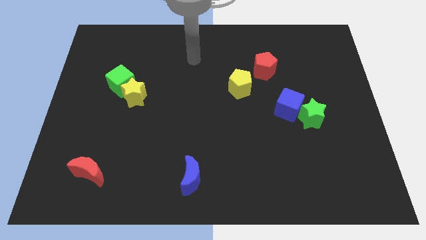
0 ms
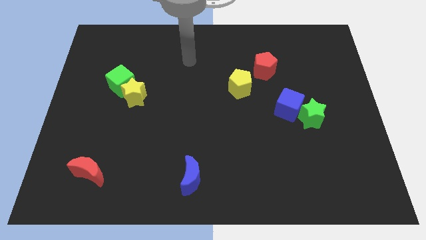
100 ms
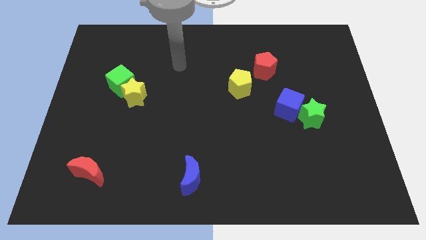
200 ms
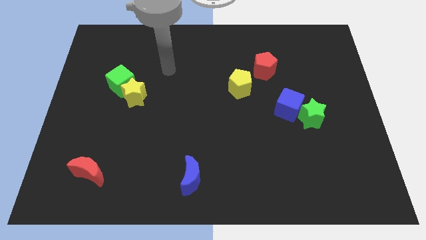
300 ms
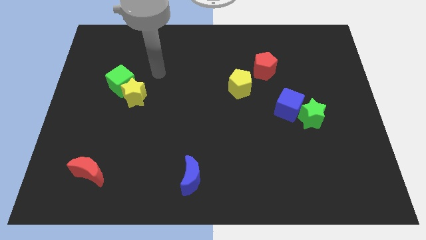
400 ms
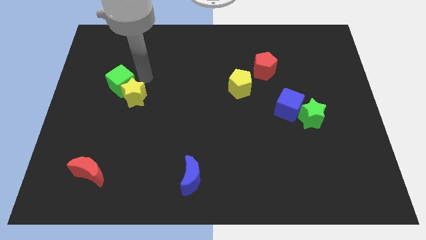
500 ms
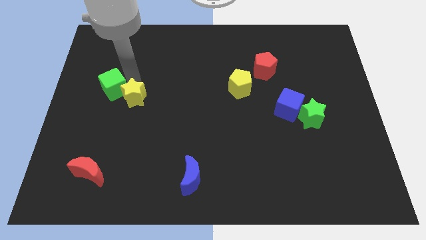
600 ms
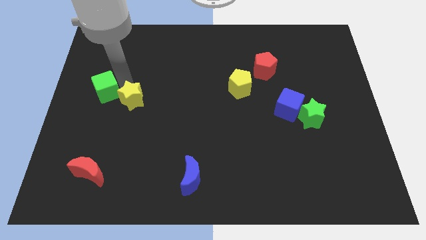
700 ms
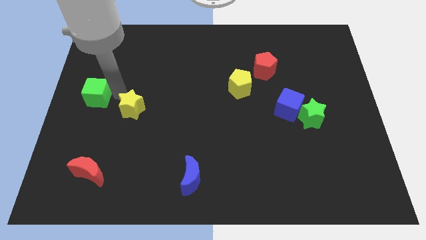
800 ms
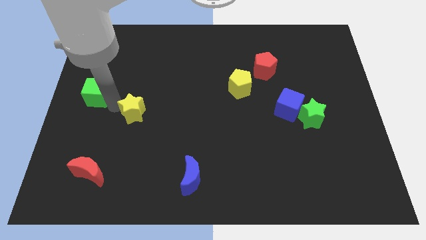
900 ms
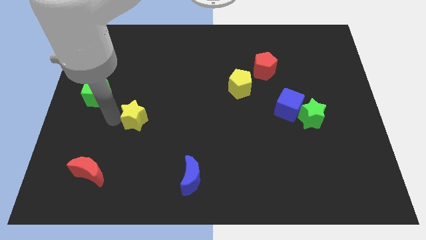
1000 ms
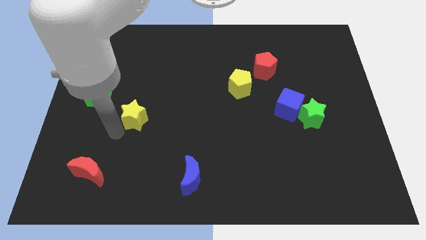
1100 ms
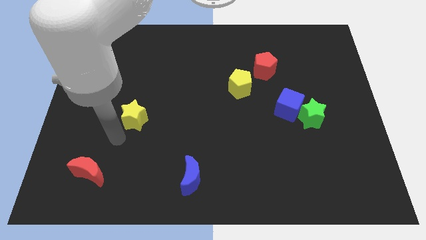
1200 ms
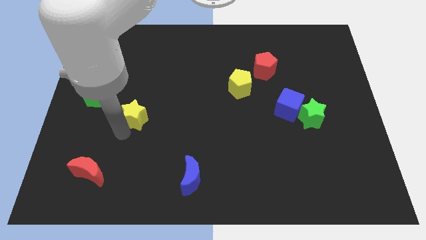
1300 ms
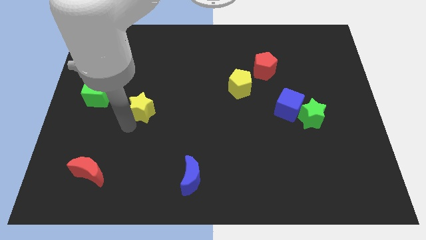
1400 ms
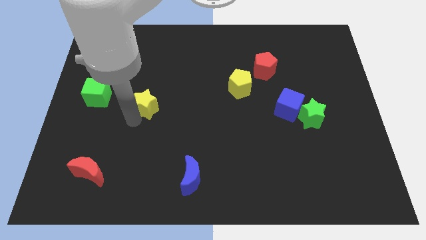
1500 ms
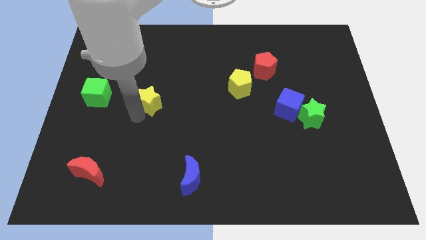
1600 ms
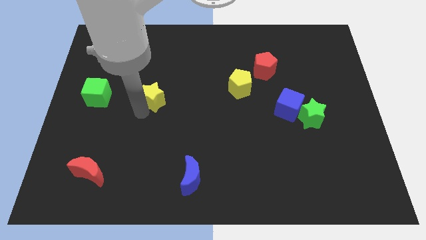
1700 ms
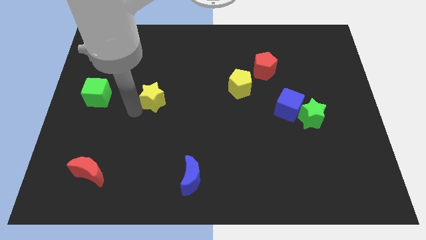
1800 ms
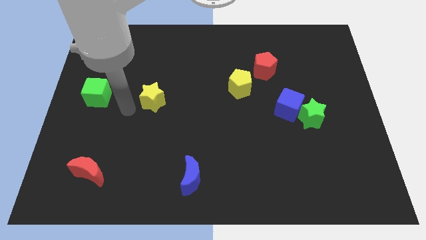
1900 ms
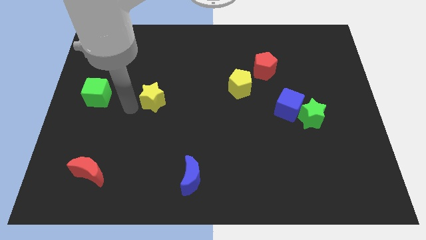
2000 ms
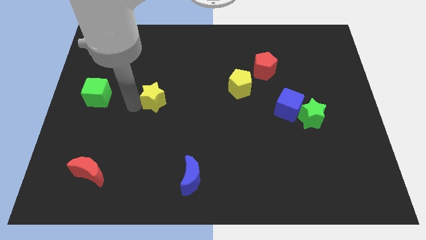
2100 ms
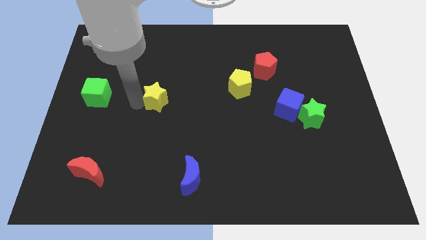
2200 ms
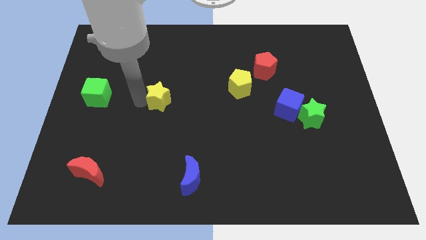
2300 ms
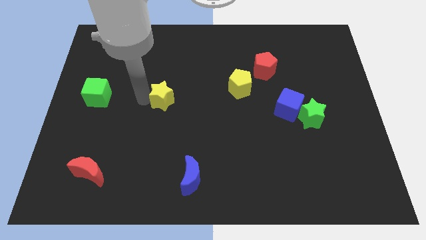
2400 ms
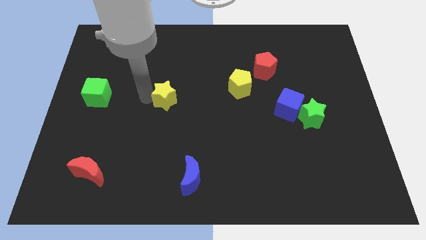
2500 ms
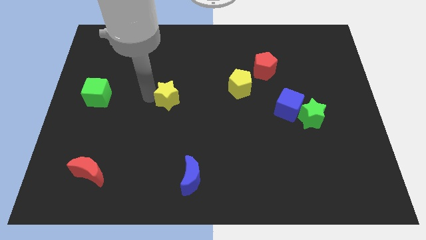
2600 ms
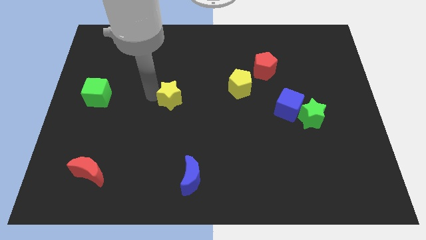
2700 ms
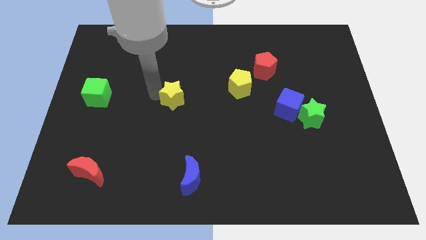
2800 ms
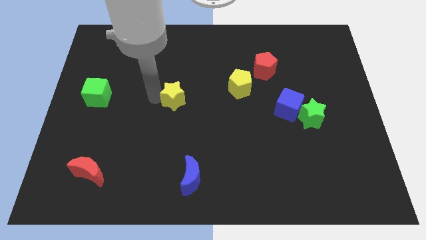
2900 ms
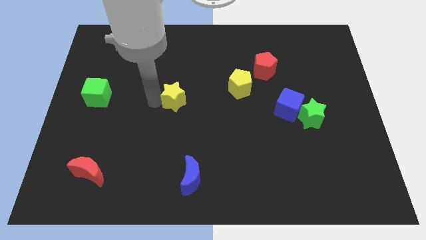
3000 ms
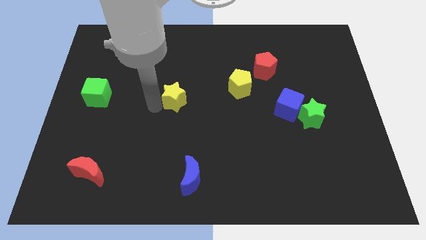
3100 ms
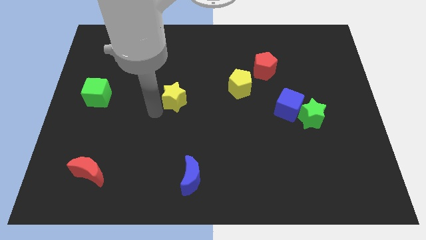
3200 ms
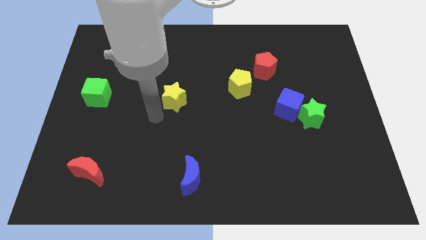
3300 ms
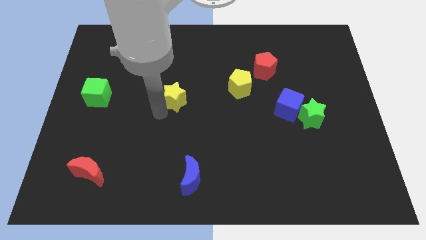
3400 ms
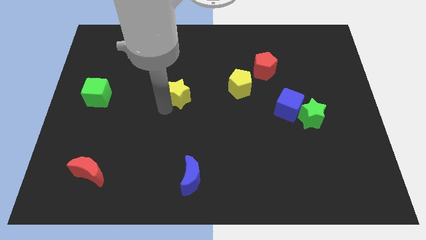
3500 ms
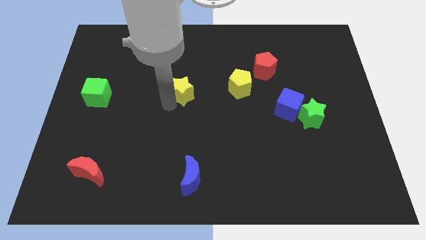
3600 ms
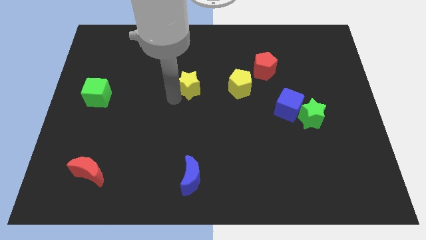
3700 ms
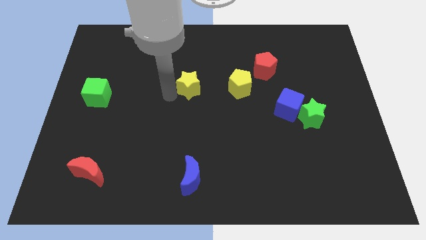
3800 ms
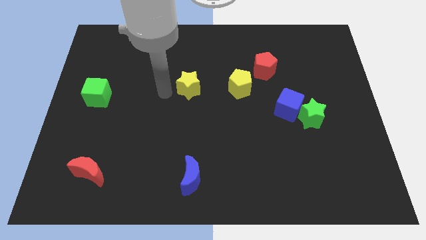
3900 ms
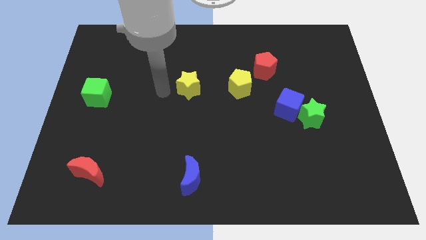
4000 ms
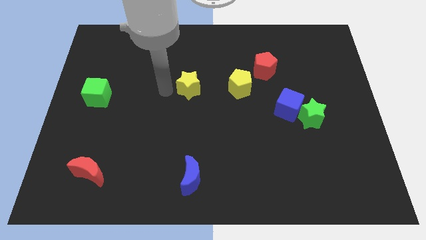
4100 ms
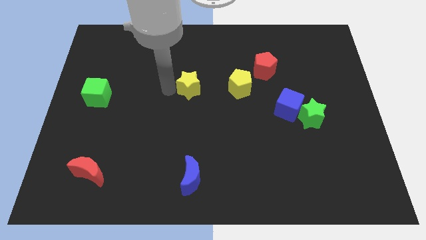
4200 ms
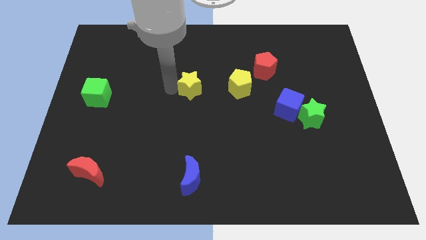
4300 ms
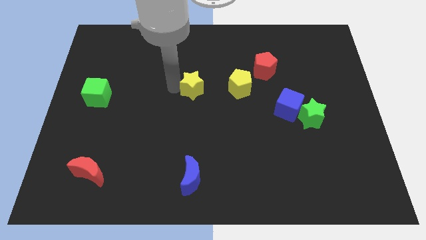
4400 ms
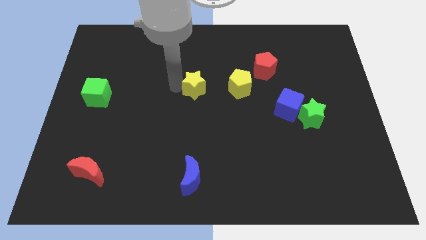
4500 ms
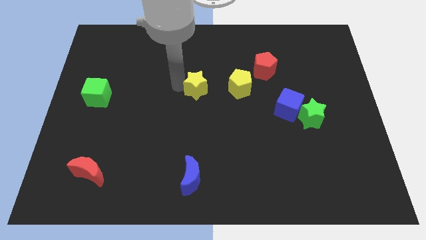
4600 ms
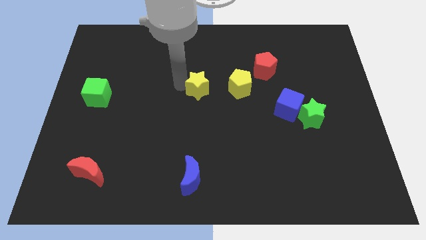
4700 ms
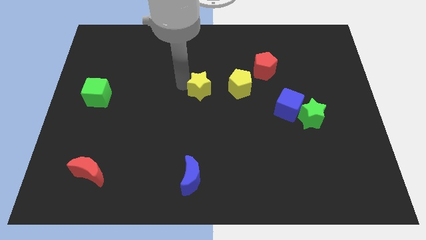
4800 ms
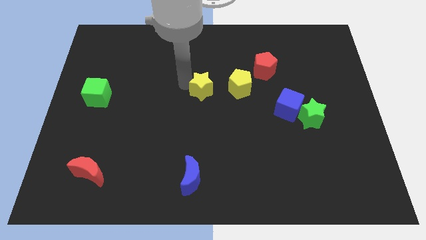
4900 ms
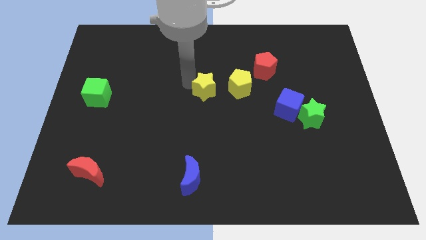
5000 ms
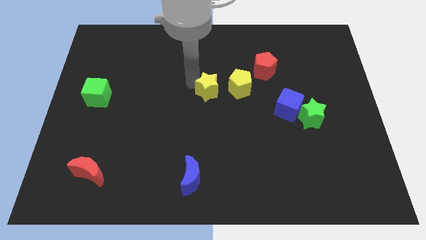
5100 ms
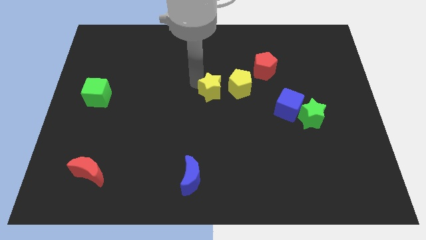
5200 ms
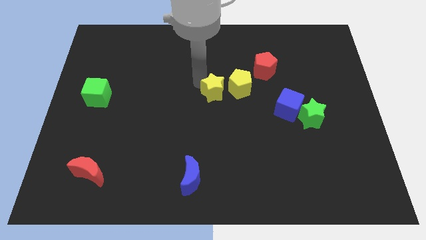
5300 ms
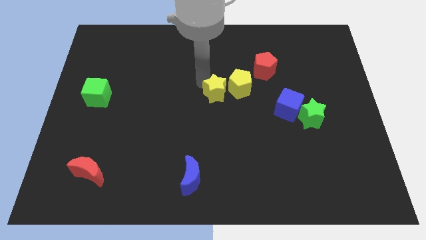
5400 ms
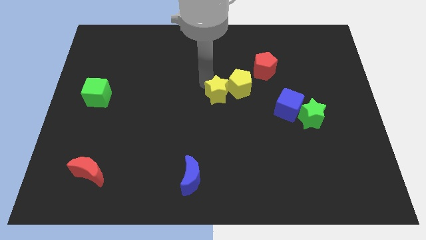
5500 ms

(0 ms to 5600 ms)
slide the yellow star to the yellow pentagon

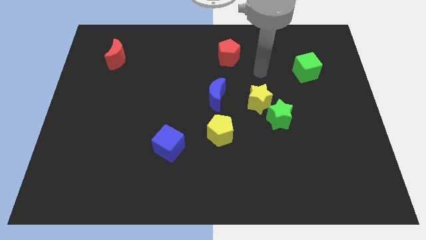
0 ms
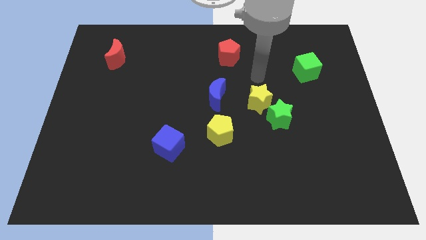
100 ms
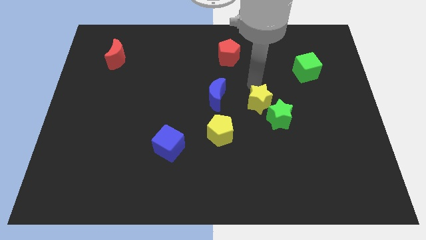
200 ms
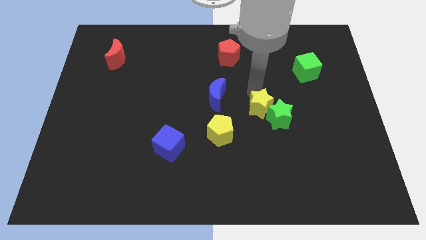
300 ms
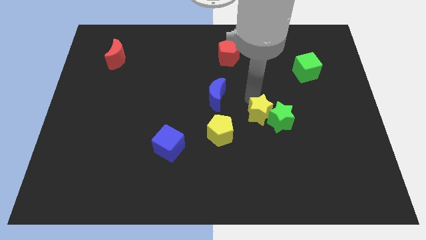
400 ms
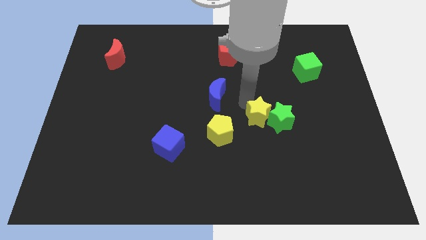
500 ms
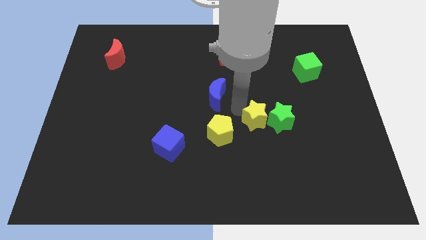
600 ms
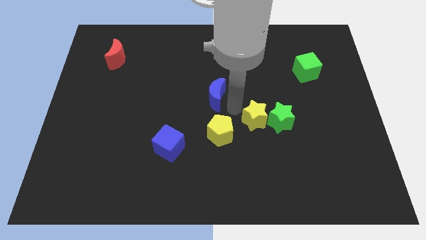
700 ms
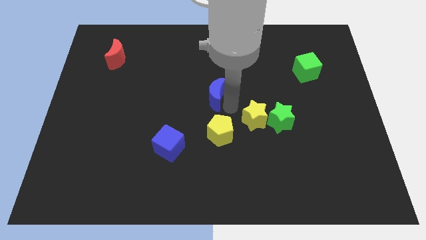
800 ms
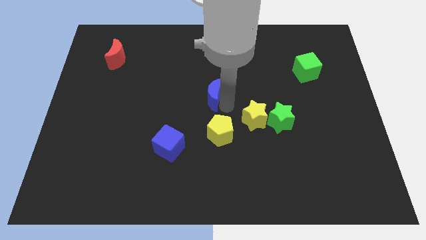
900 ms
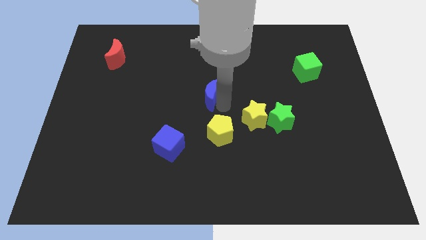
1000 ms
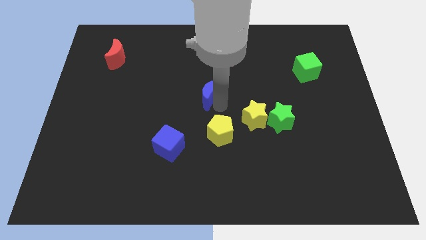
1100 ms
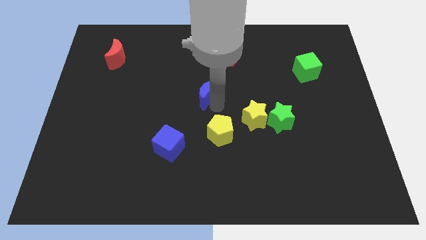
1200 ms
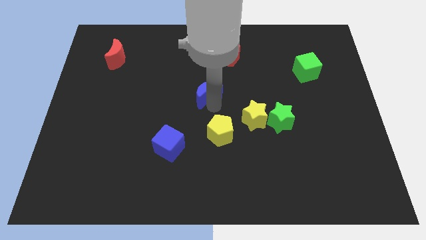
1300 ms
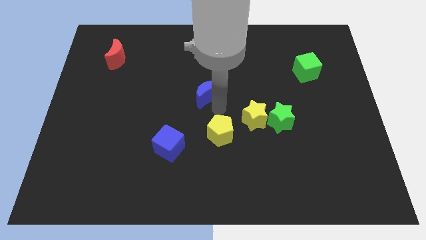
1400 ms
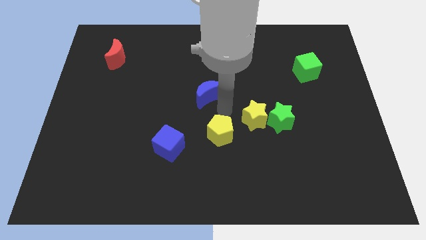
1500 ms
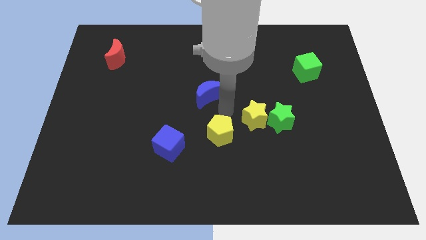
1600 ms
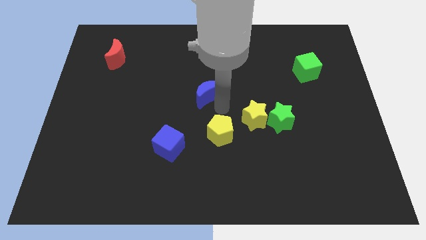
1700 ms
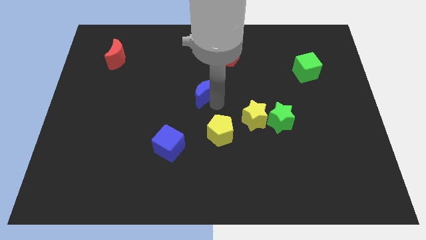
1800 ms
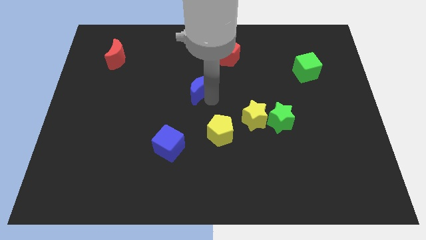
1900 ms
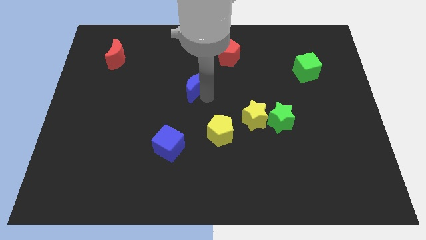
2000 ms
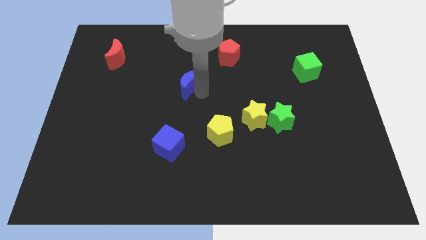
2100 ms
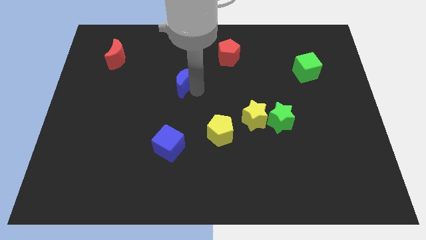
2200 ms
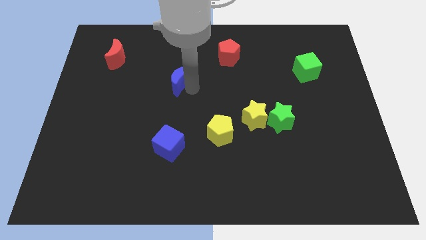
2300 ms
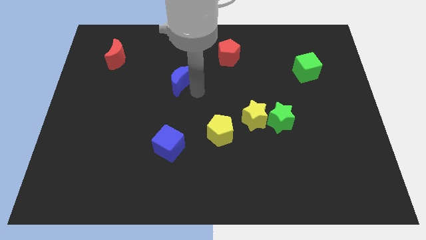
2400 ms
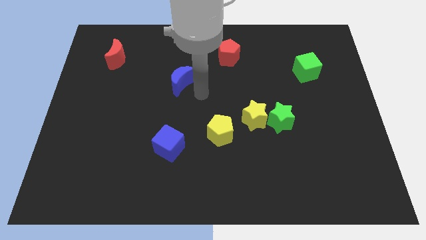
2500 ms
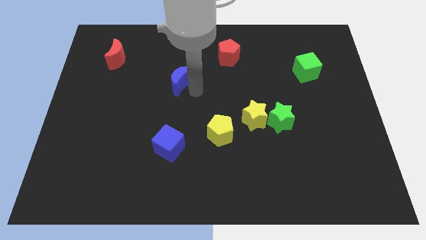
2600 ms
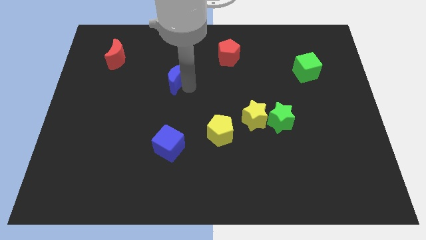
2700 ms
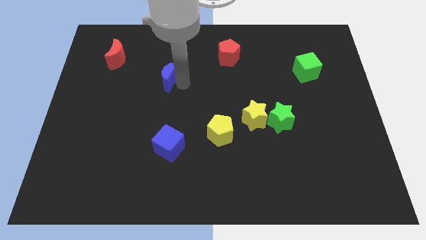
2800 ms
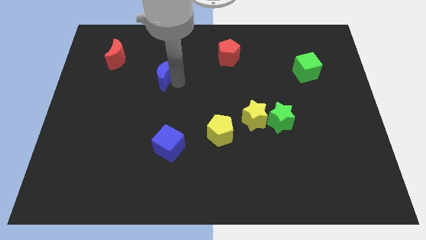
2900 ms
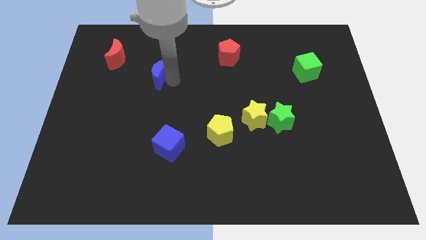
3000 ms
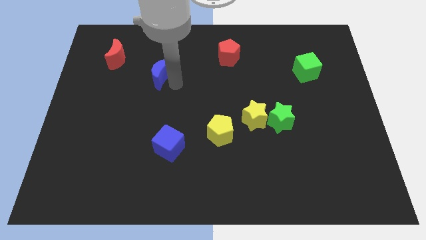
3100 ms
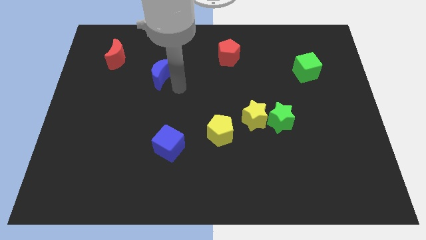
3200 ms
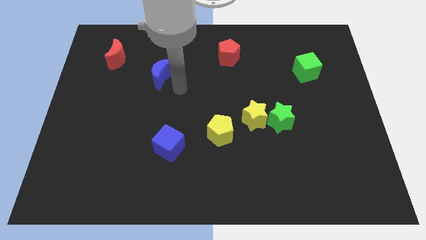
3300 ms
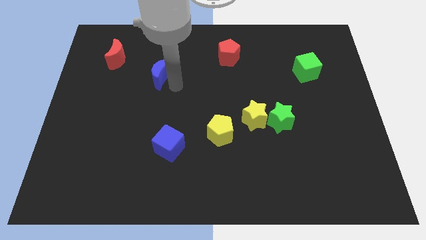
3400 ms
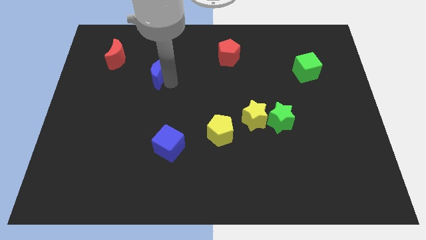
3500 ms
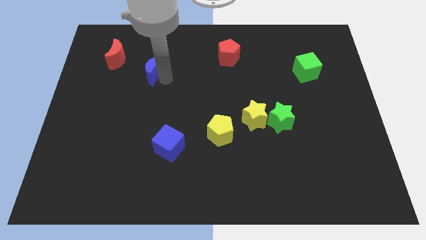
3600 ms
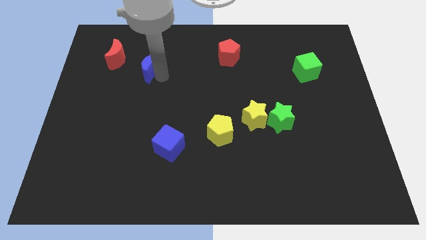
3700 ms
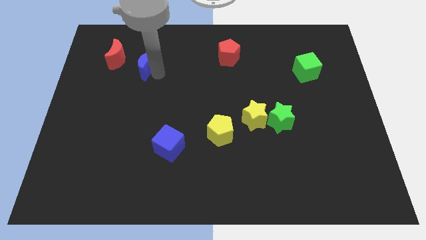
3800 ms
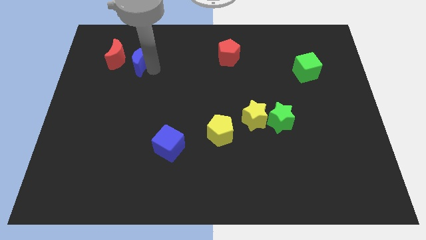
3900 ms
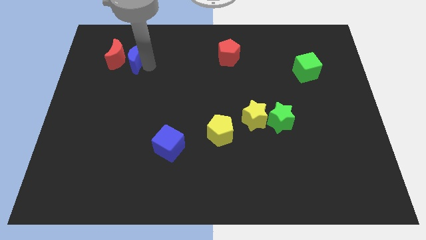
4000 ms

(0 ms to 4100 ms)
put the blue moon close to the red moon
